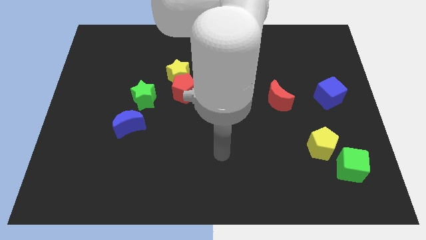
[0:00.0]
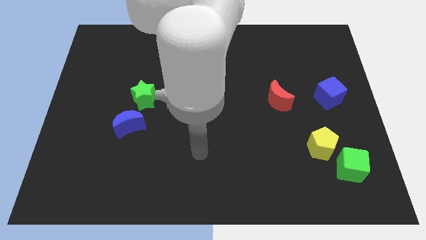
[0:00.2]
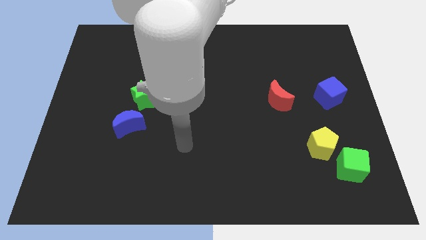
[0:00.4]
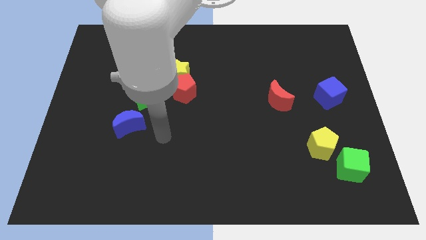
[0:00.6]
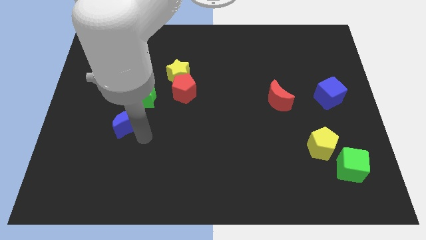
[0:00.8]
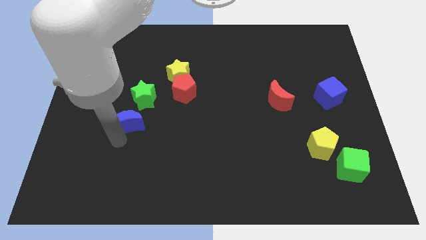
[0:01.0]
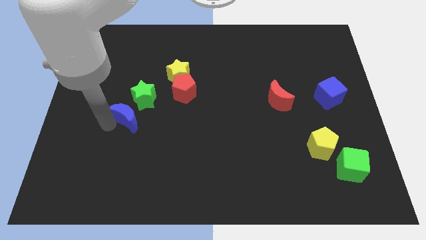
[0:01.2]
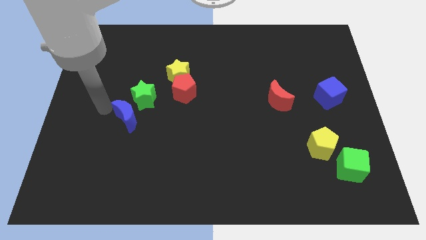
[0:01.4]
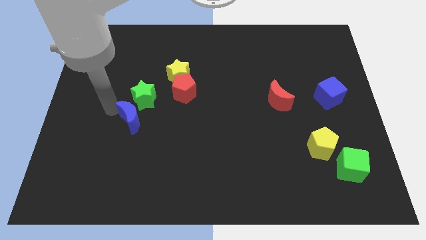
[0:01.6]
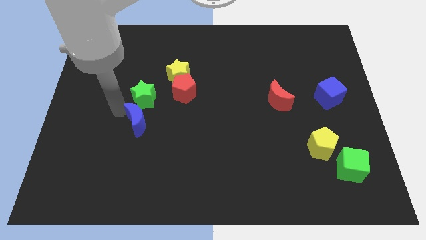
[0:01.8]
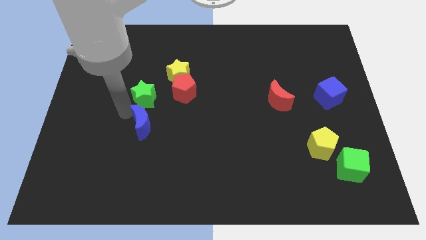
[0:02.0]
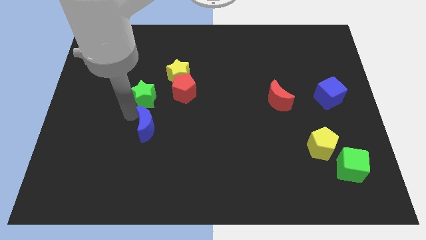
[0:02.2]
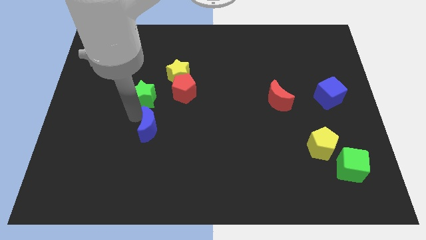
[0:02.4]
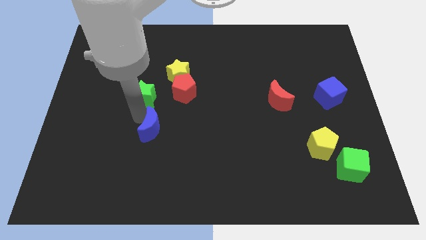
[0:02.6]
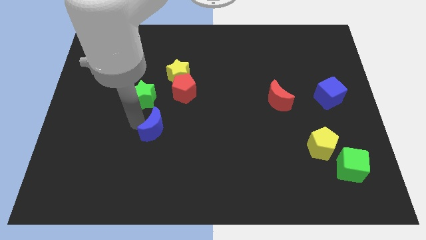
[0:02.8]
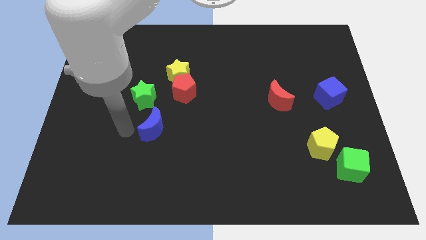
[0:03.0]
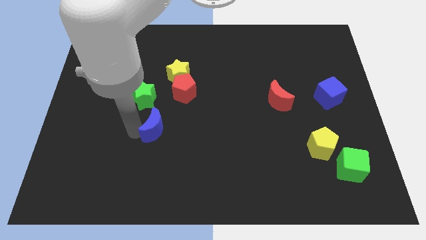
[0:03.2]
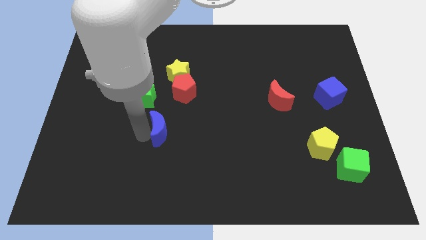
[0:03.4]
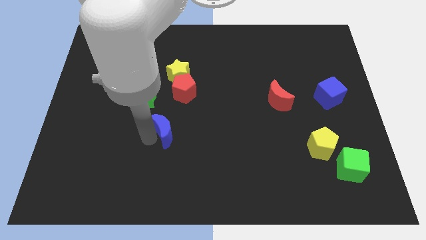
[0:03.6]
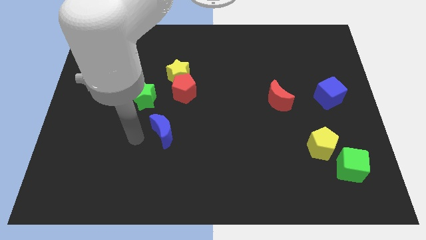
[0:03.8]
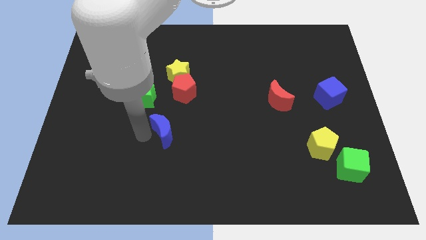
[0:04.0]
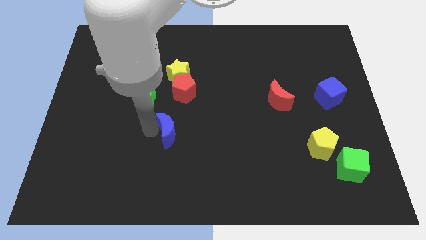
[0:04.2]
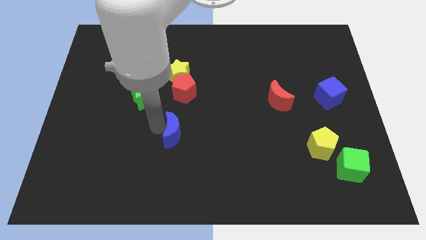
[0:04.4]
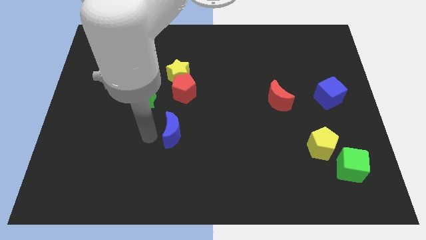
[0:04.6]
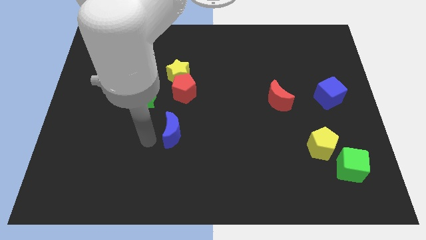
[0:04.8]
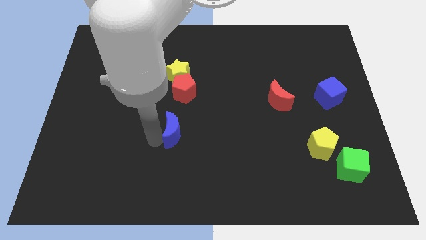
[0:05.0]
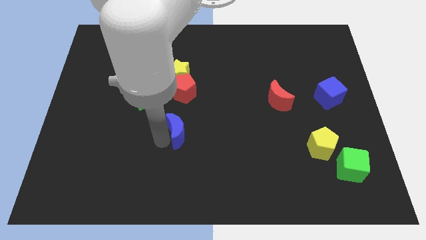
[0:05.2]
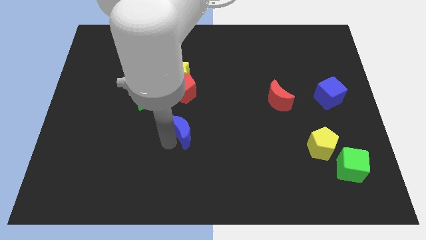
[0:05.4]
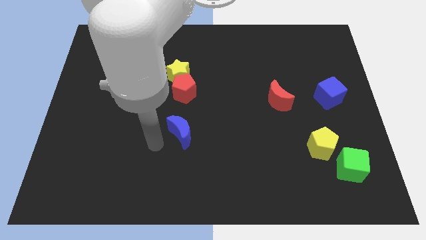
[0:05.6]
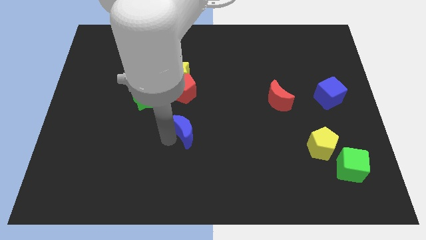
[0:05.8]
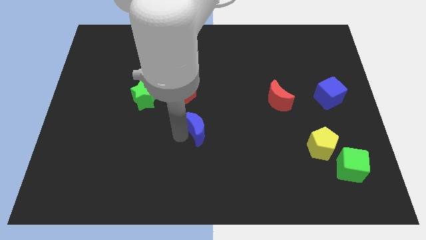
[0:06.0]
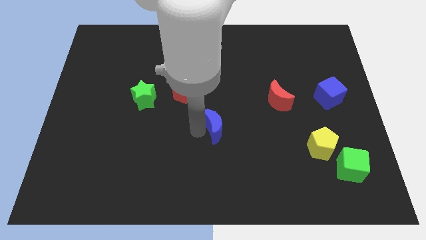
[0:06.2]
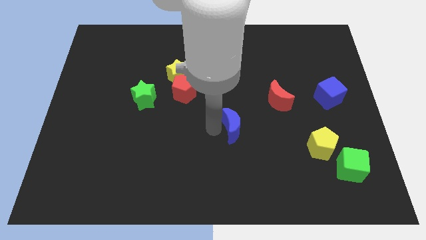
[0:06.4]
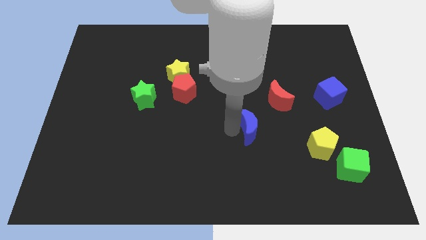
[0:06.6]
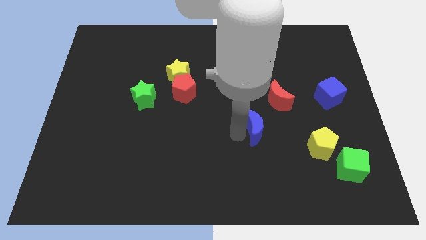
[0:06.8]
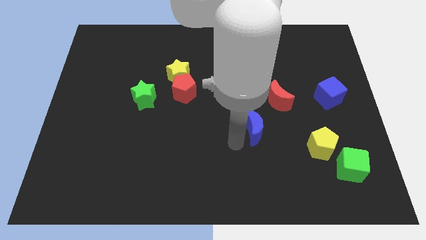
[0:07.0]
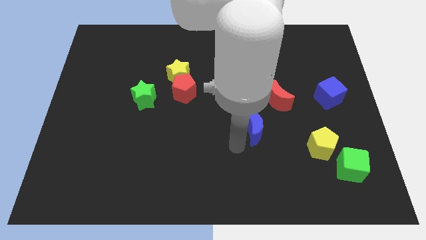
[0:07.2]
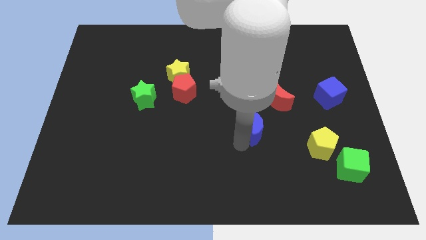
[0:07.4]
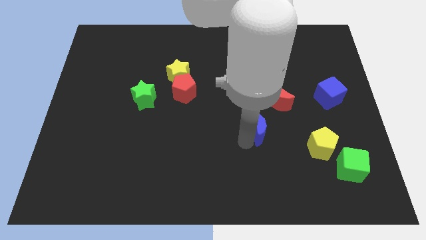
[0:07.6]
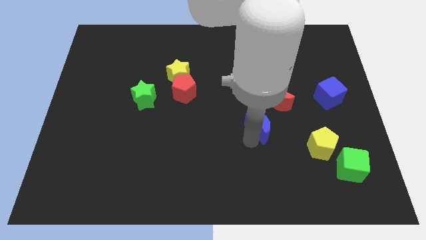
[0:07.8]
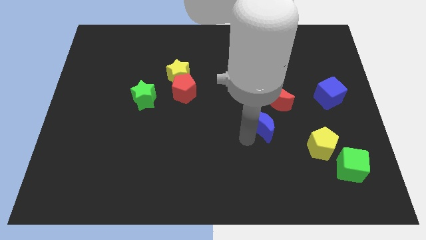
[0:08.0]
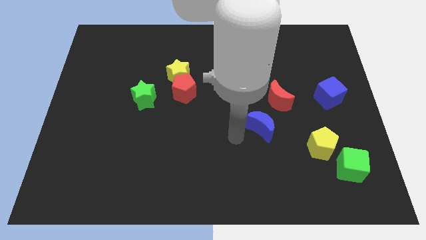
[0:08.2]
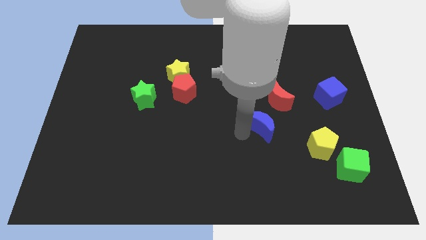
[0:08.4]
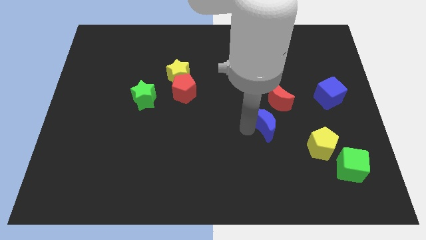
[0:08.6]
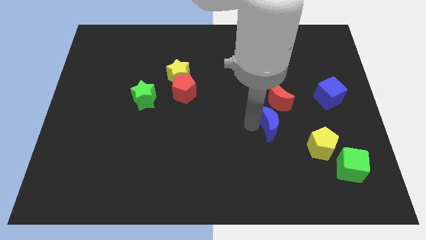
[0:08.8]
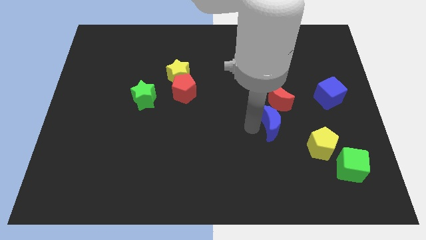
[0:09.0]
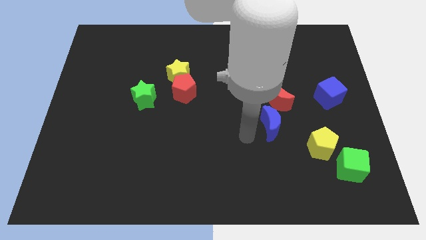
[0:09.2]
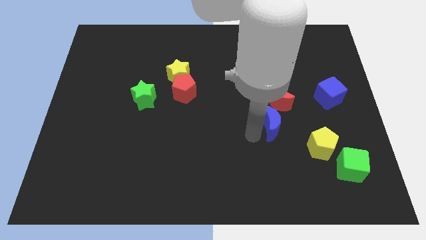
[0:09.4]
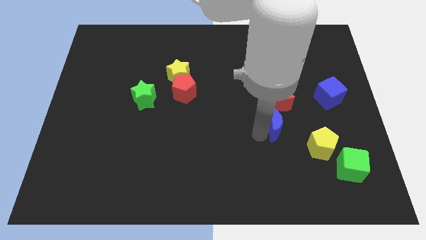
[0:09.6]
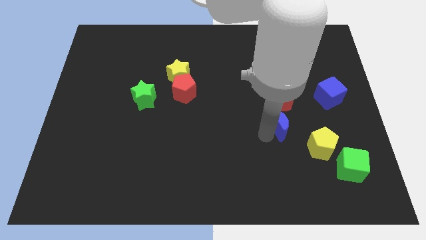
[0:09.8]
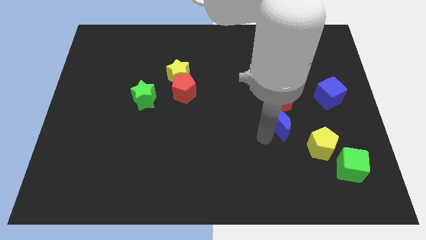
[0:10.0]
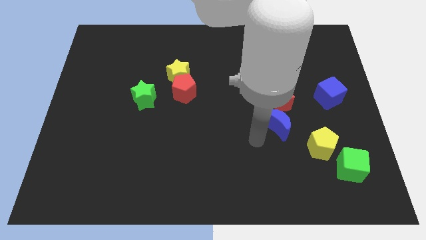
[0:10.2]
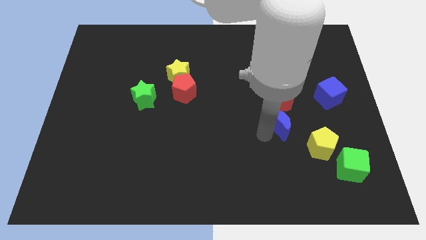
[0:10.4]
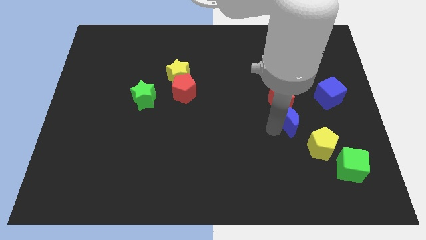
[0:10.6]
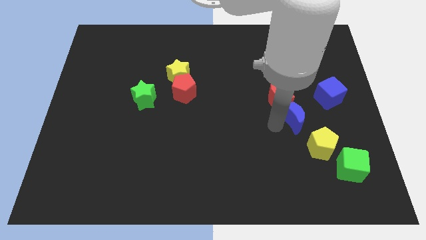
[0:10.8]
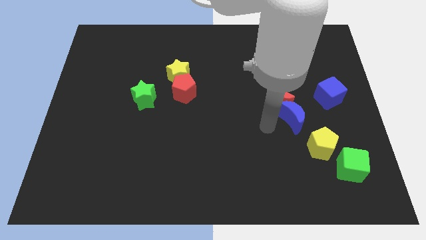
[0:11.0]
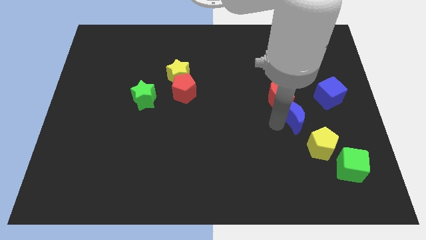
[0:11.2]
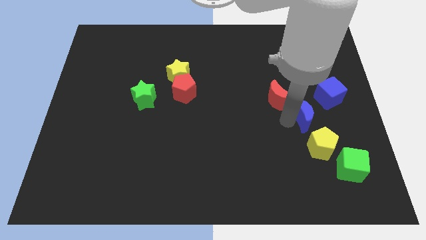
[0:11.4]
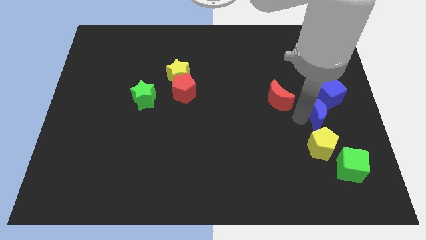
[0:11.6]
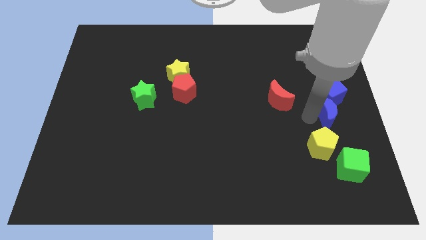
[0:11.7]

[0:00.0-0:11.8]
slide the blue moon to the right side
